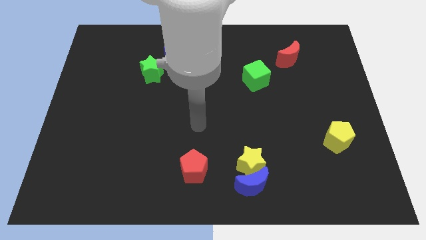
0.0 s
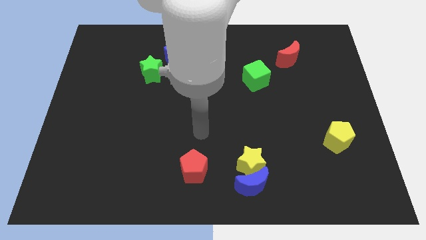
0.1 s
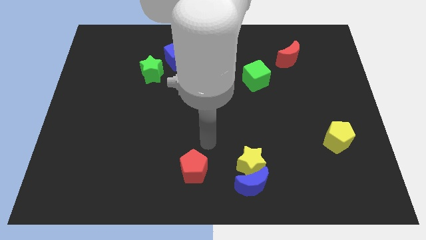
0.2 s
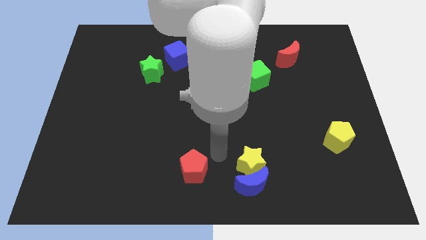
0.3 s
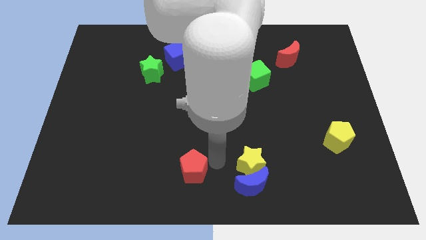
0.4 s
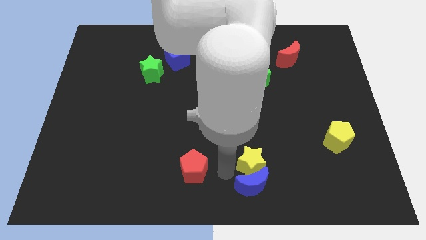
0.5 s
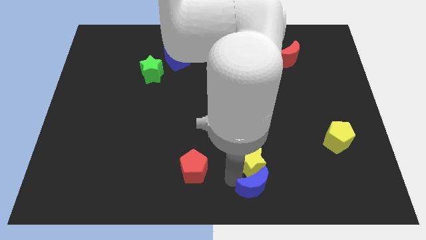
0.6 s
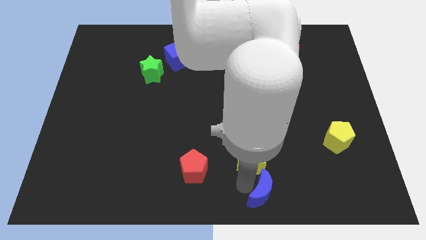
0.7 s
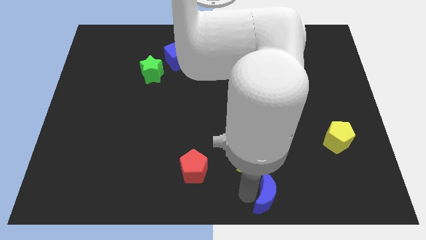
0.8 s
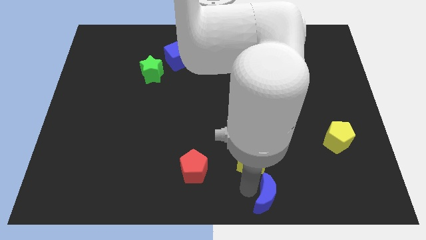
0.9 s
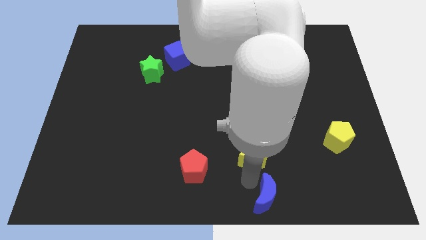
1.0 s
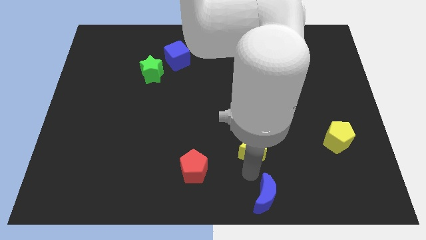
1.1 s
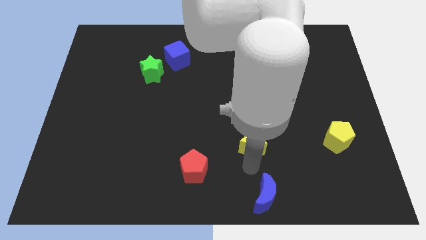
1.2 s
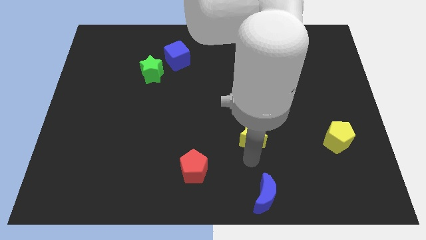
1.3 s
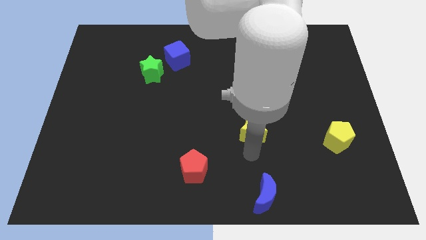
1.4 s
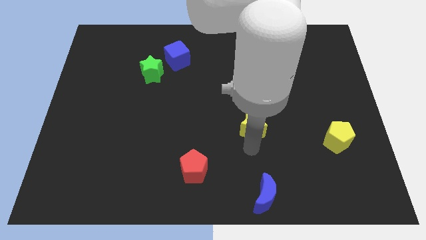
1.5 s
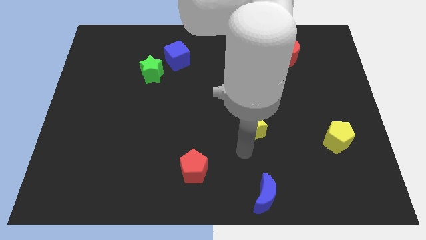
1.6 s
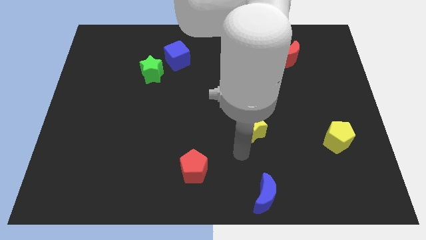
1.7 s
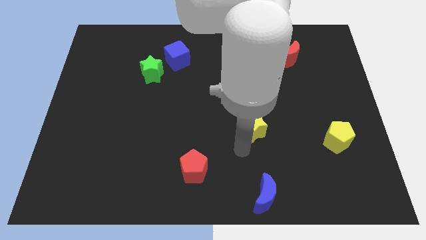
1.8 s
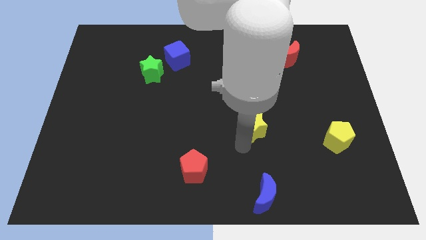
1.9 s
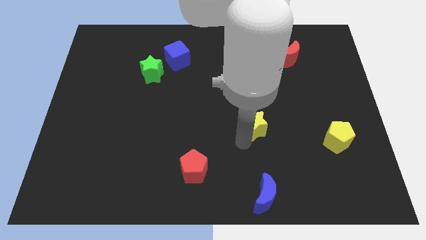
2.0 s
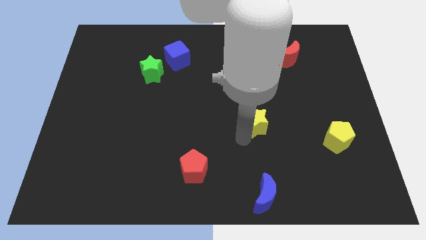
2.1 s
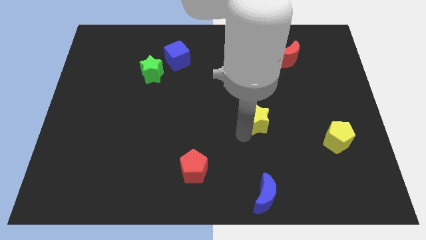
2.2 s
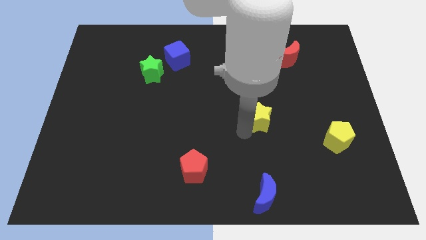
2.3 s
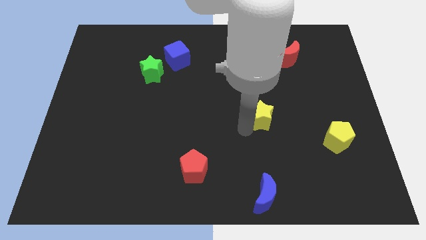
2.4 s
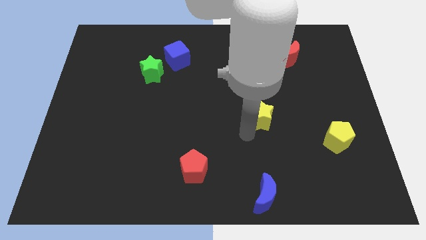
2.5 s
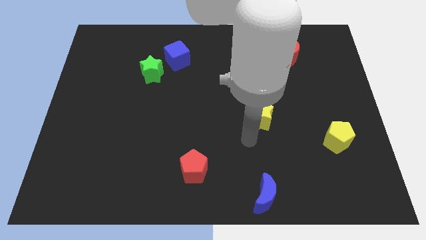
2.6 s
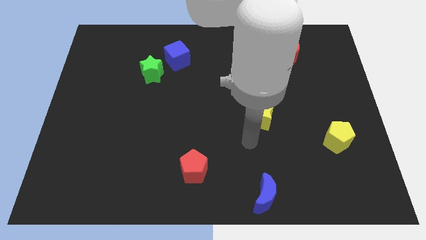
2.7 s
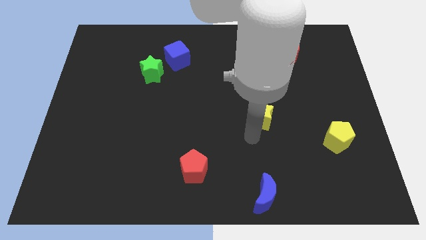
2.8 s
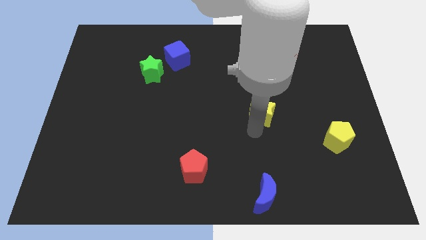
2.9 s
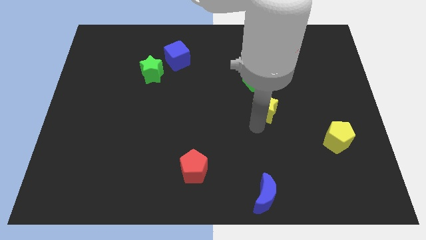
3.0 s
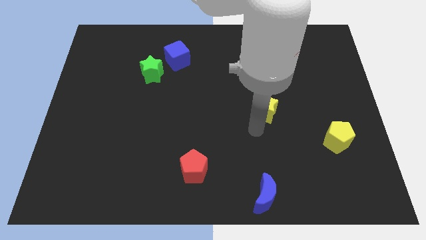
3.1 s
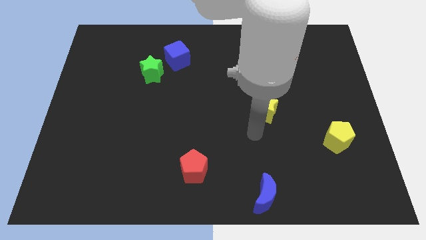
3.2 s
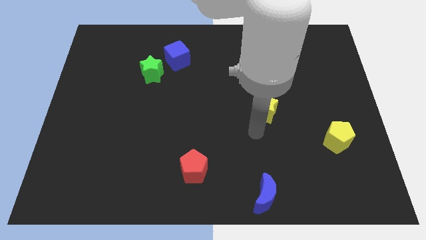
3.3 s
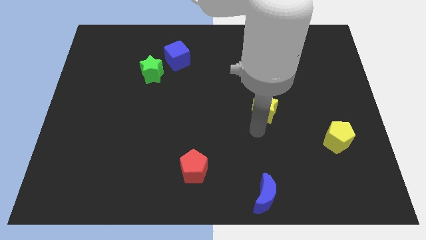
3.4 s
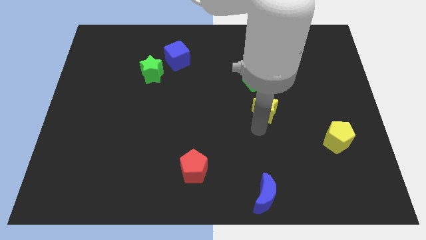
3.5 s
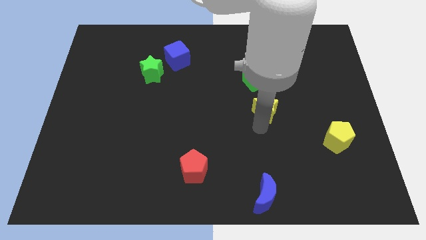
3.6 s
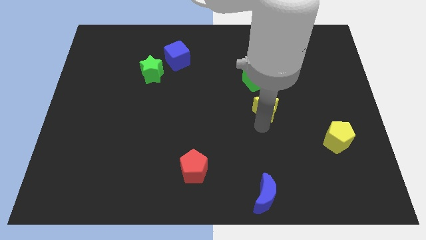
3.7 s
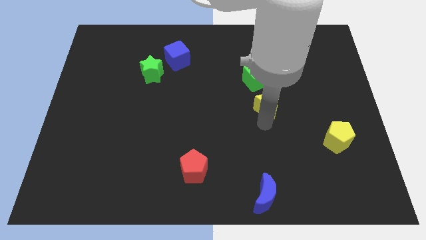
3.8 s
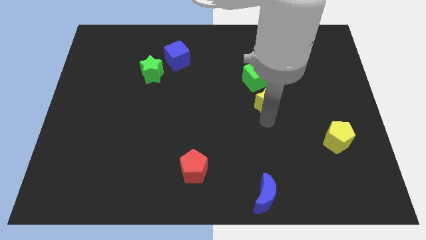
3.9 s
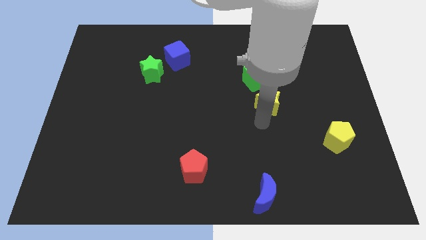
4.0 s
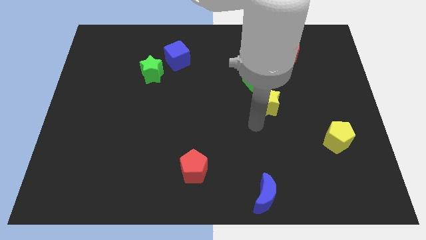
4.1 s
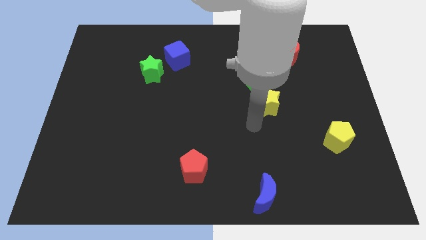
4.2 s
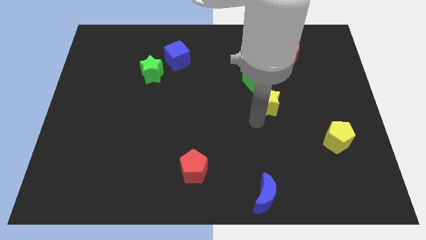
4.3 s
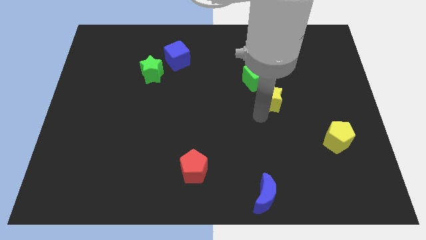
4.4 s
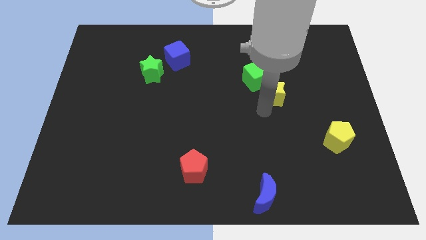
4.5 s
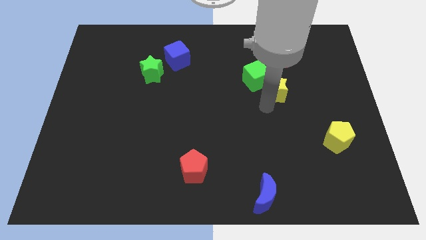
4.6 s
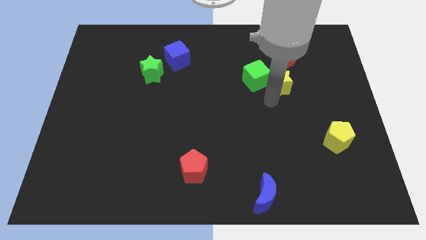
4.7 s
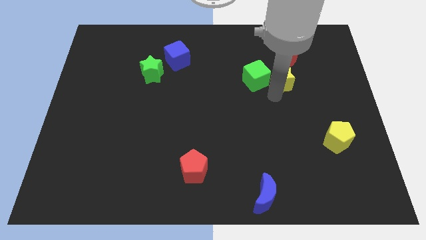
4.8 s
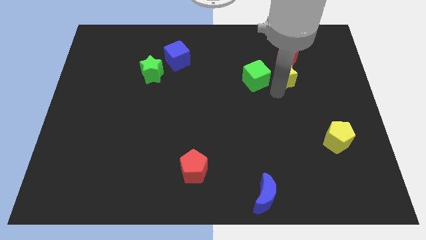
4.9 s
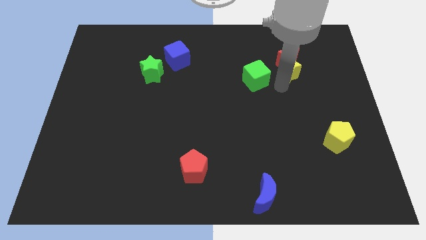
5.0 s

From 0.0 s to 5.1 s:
push the yellow star to the red moon

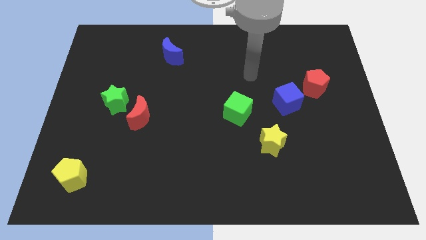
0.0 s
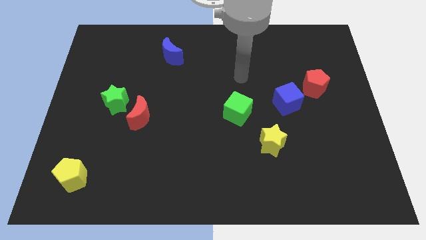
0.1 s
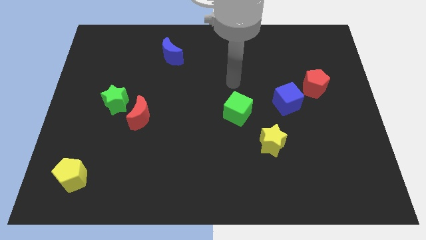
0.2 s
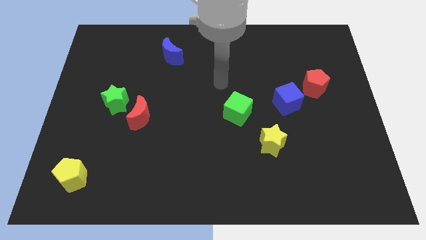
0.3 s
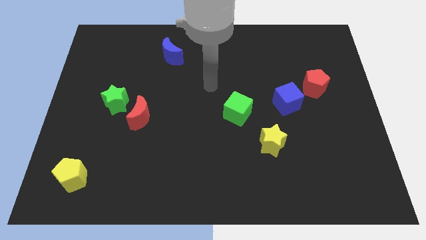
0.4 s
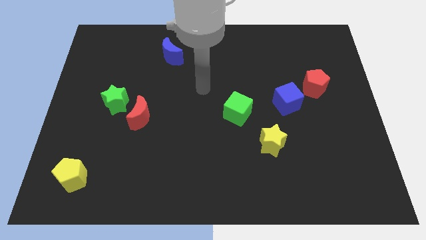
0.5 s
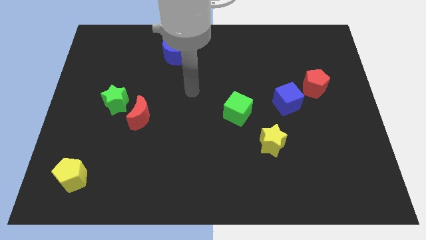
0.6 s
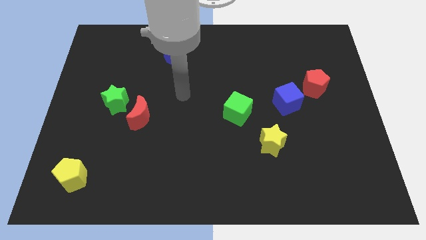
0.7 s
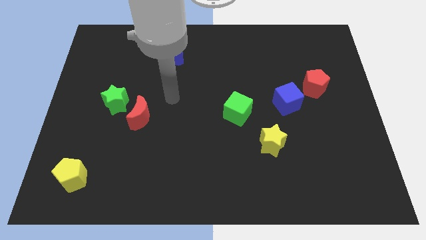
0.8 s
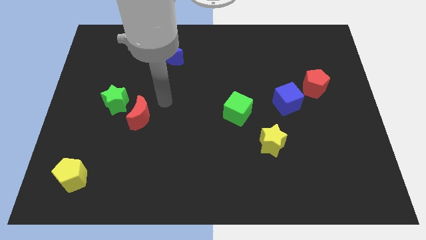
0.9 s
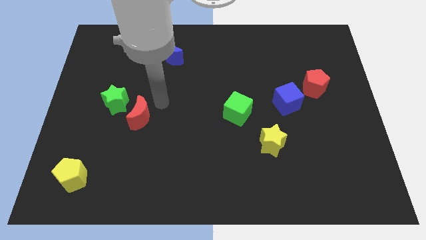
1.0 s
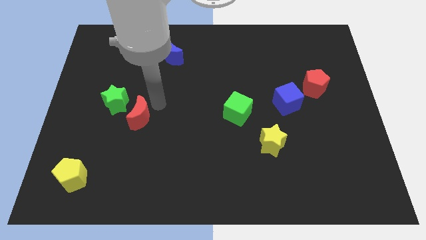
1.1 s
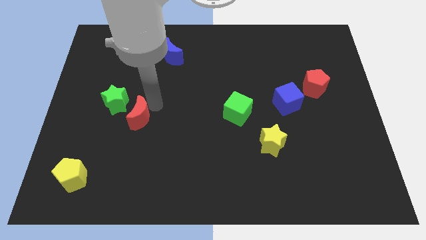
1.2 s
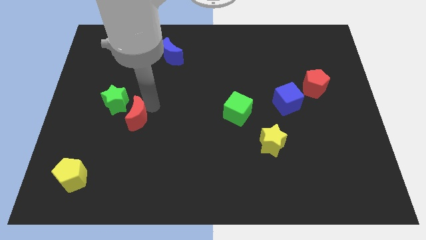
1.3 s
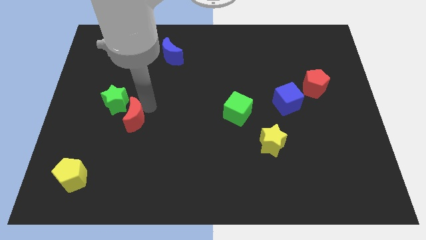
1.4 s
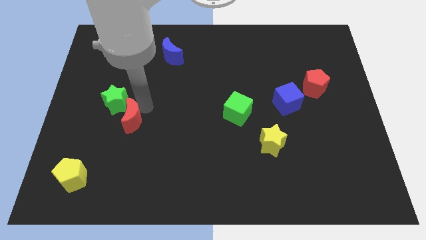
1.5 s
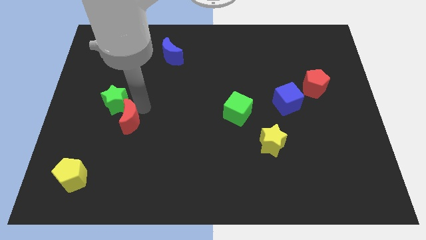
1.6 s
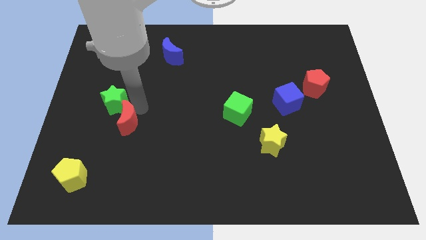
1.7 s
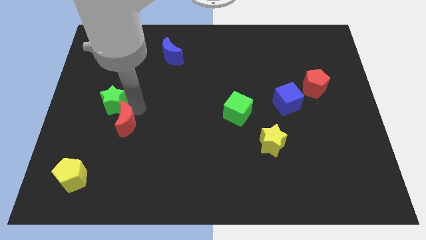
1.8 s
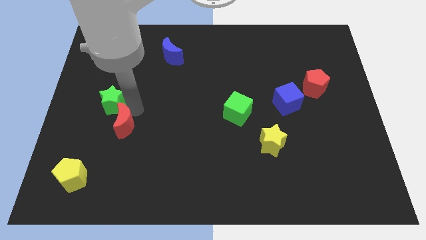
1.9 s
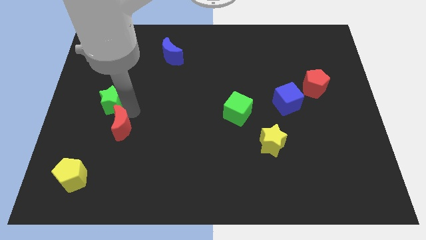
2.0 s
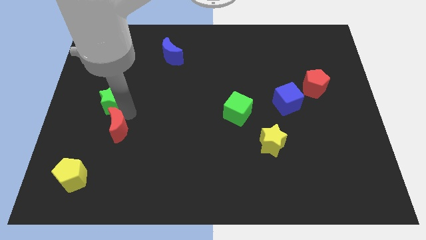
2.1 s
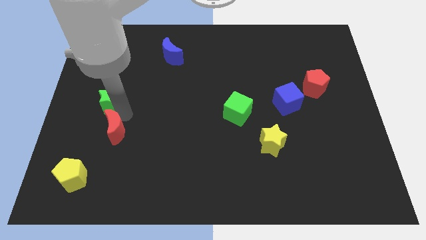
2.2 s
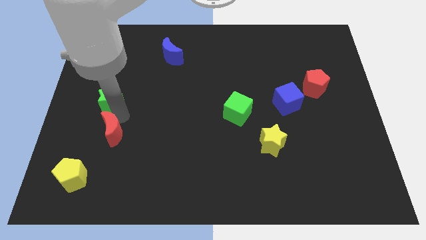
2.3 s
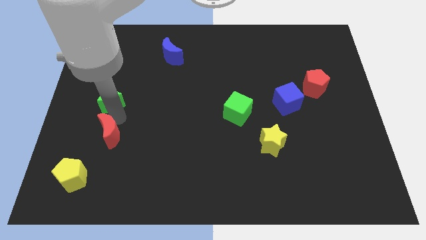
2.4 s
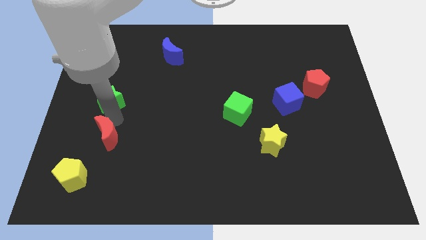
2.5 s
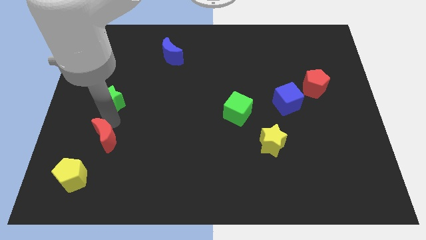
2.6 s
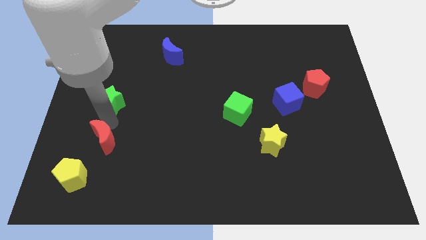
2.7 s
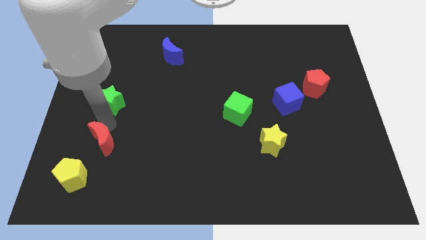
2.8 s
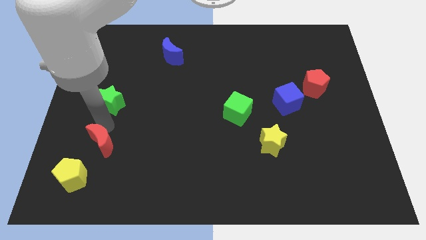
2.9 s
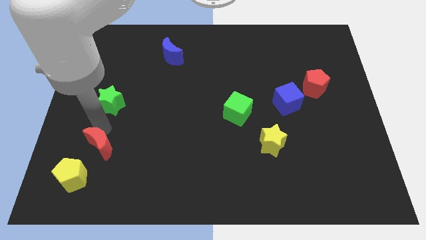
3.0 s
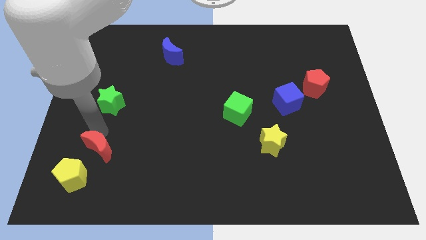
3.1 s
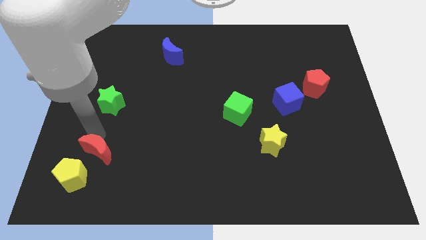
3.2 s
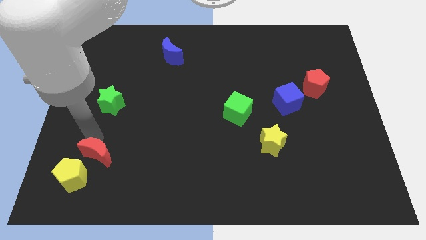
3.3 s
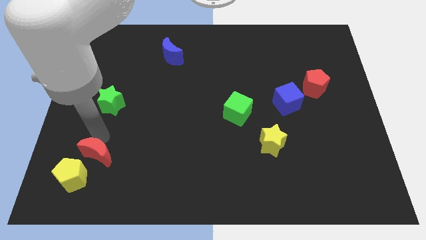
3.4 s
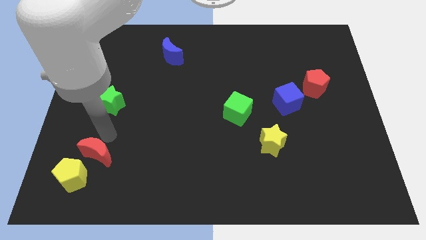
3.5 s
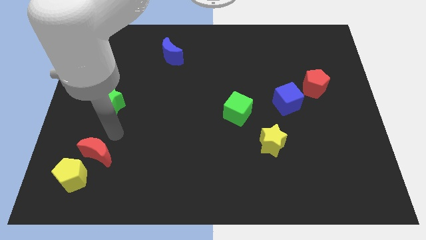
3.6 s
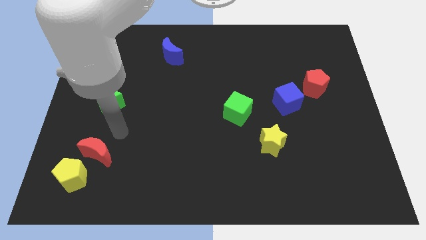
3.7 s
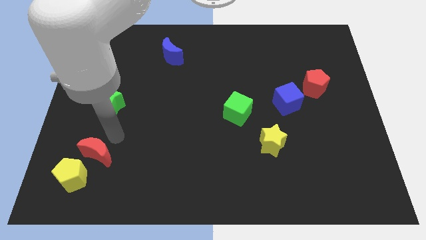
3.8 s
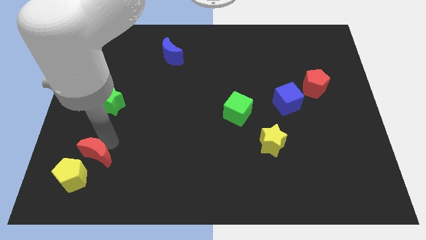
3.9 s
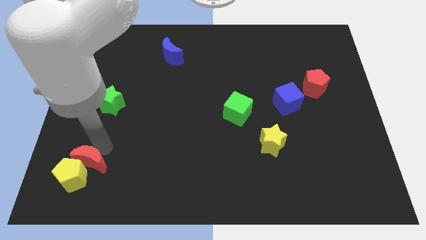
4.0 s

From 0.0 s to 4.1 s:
move the red moon towards the yellow pentagon
